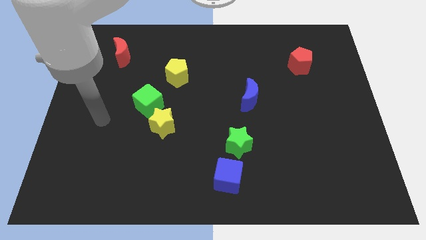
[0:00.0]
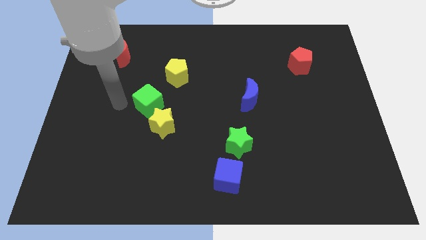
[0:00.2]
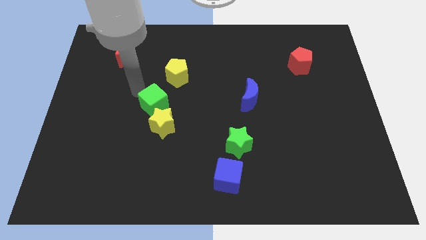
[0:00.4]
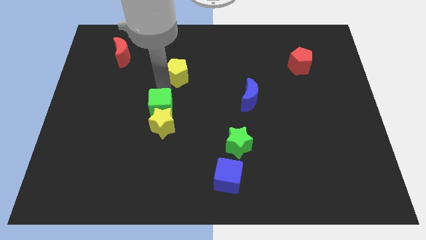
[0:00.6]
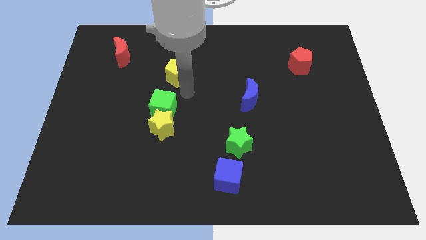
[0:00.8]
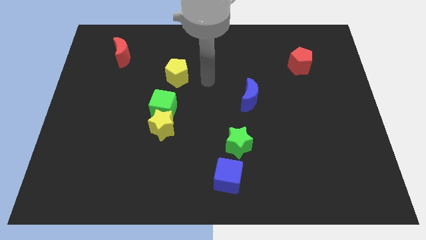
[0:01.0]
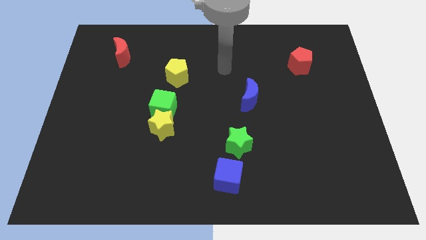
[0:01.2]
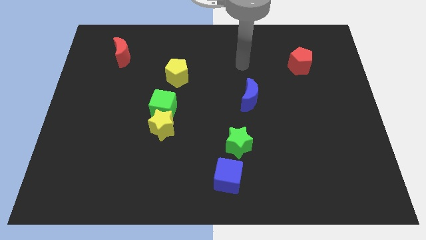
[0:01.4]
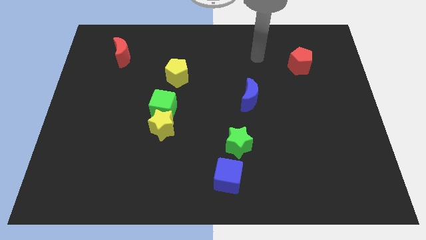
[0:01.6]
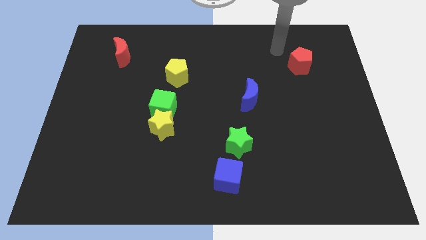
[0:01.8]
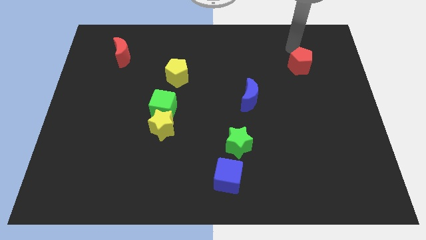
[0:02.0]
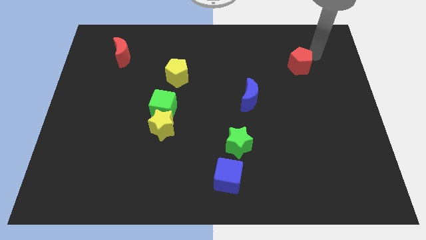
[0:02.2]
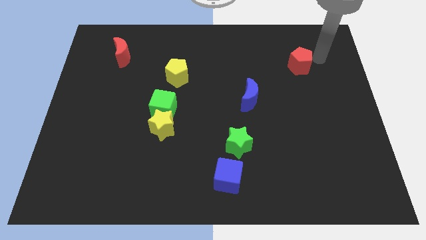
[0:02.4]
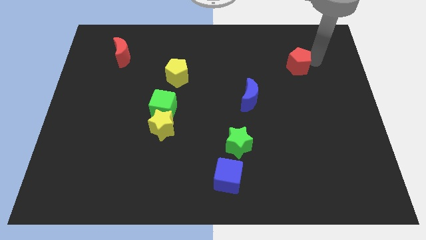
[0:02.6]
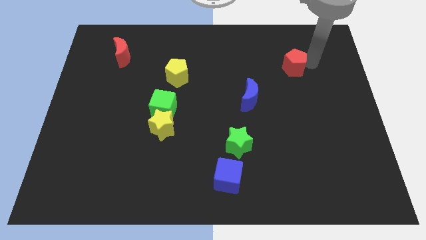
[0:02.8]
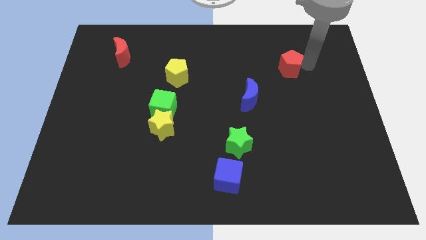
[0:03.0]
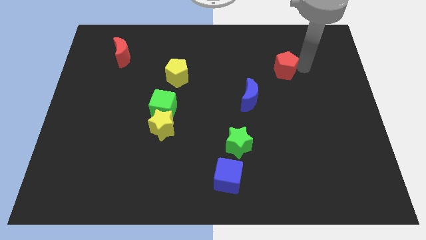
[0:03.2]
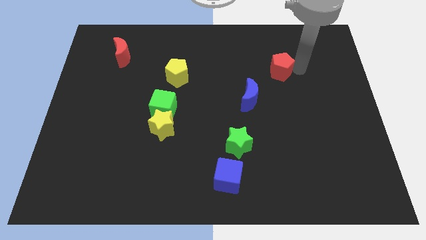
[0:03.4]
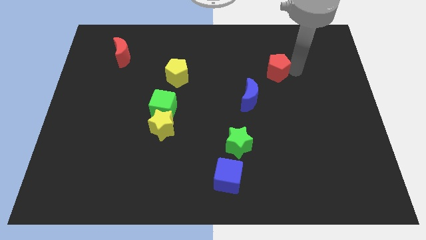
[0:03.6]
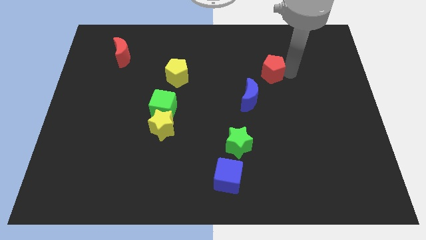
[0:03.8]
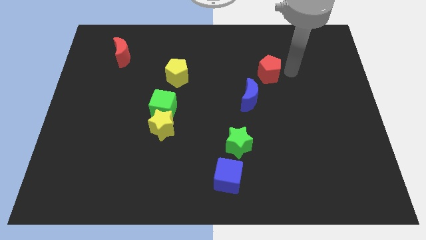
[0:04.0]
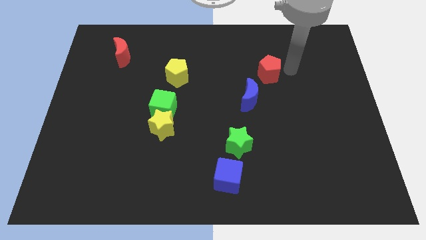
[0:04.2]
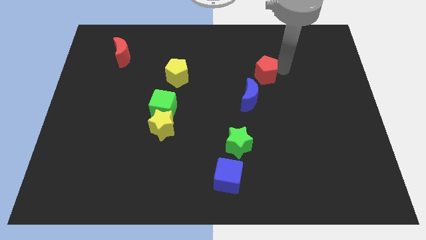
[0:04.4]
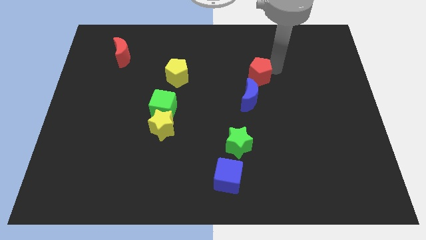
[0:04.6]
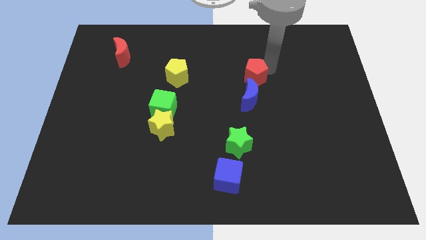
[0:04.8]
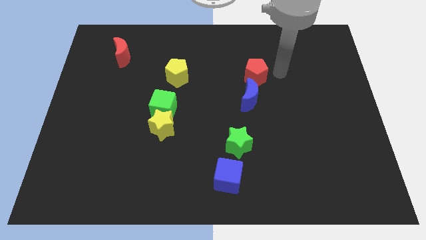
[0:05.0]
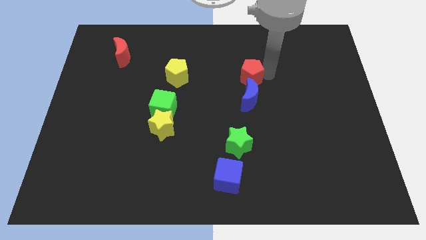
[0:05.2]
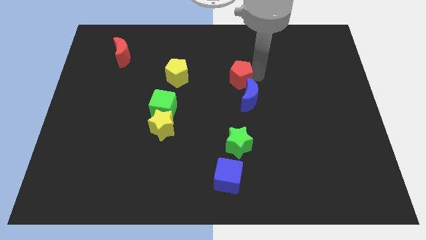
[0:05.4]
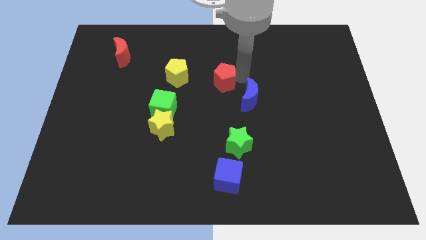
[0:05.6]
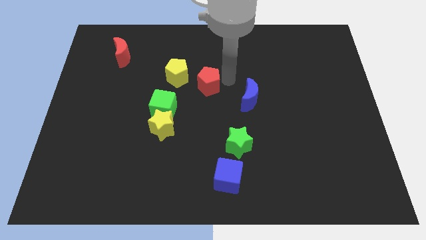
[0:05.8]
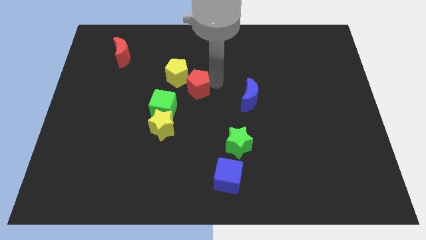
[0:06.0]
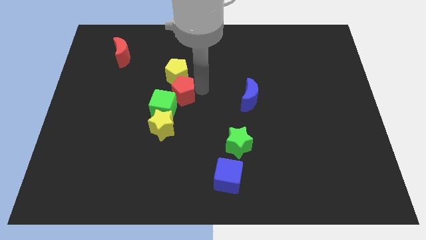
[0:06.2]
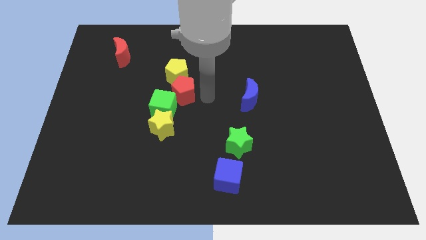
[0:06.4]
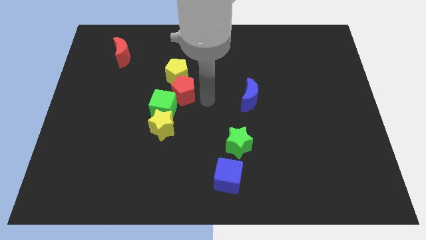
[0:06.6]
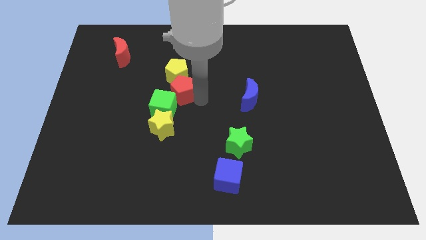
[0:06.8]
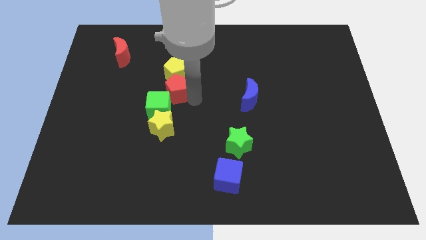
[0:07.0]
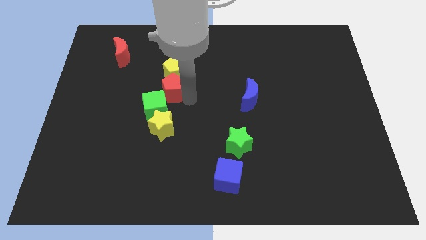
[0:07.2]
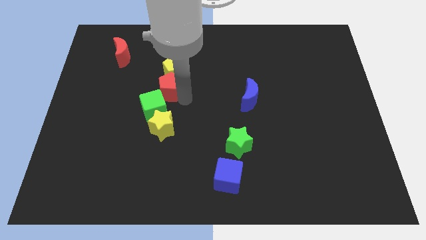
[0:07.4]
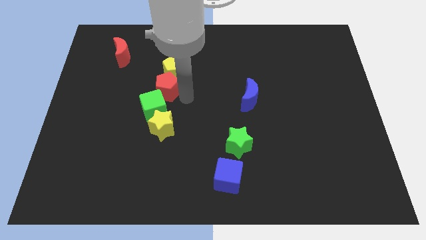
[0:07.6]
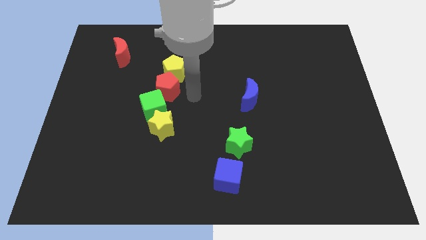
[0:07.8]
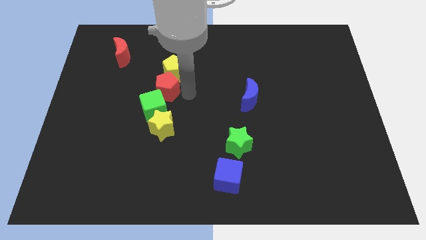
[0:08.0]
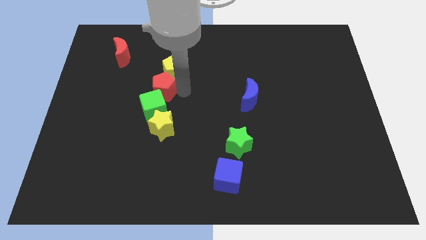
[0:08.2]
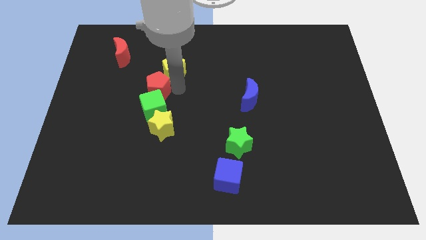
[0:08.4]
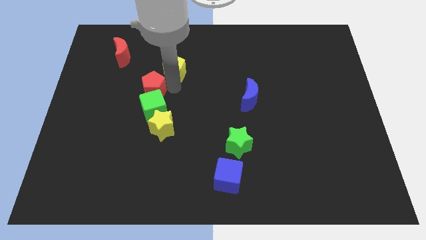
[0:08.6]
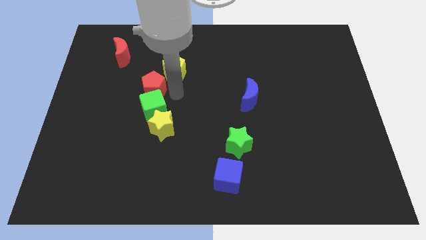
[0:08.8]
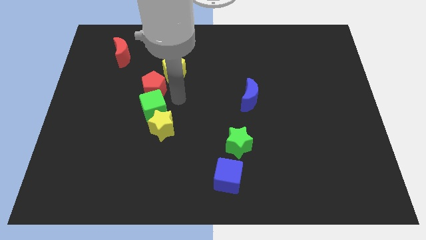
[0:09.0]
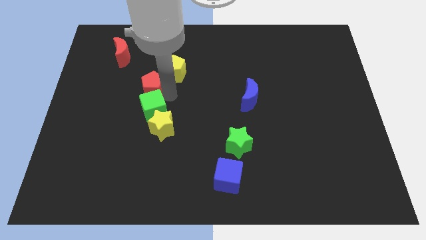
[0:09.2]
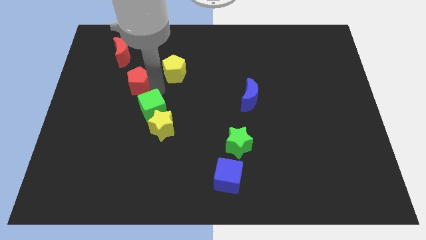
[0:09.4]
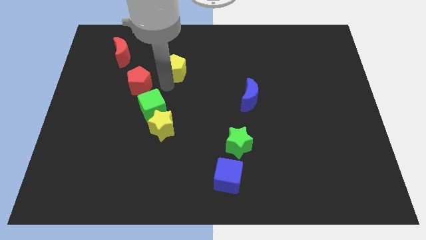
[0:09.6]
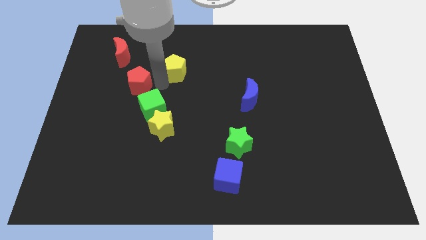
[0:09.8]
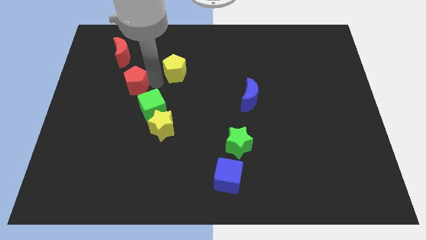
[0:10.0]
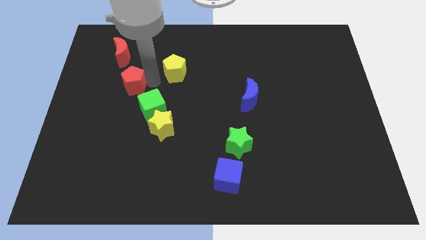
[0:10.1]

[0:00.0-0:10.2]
slide the red pentagon below the red moon

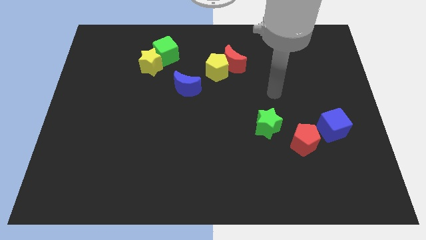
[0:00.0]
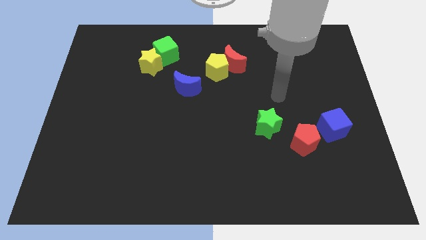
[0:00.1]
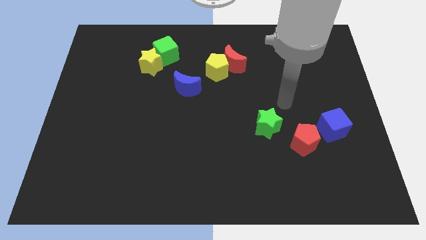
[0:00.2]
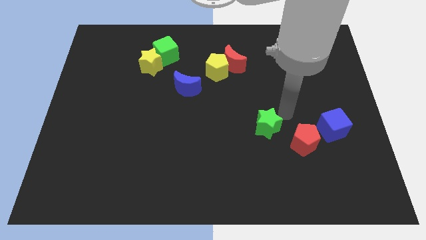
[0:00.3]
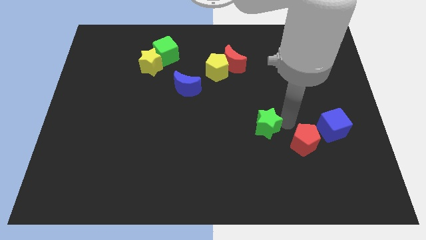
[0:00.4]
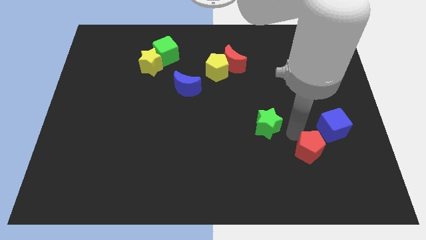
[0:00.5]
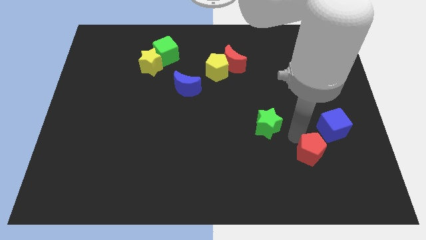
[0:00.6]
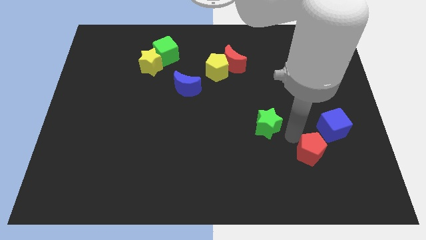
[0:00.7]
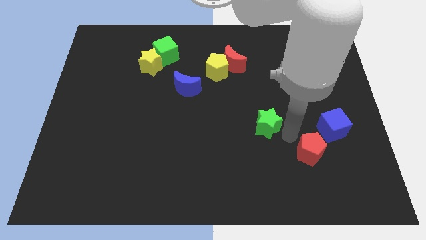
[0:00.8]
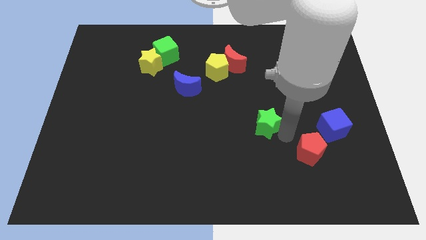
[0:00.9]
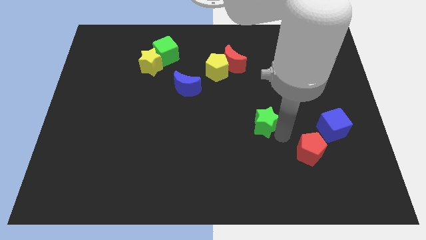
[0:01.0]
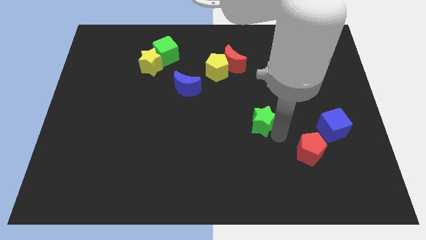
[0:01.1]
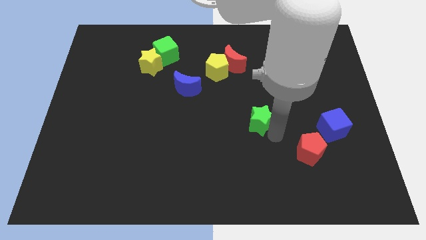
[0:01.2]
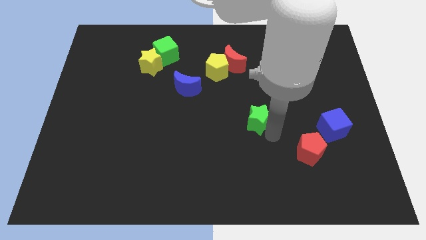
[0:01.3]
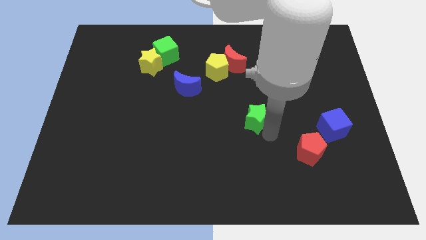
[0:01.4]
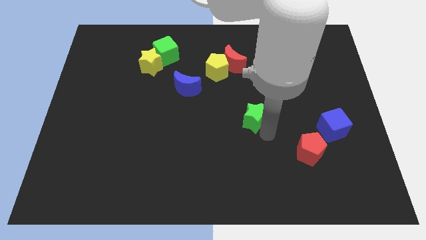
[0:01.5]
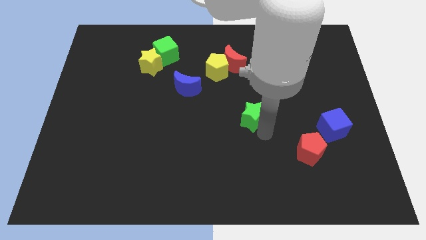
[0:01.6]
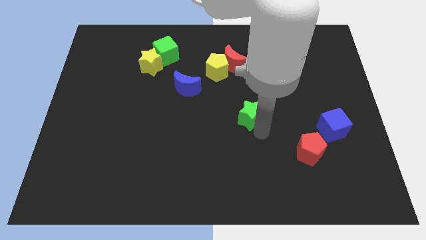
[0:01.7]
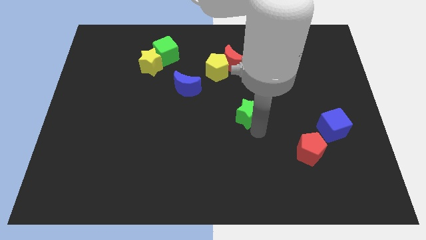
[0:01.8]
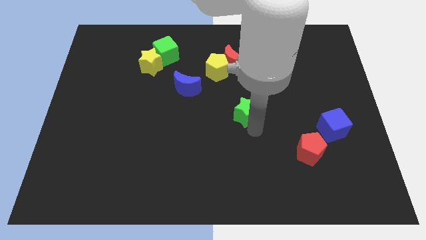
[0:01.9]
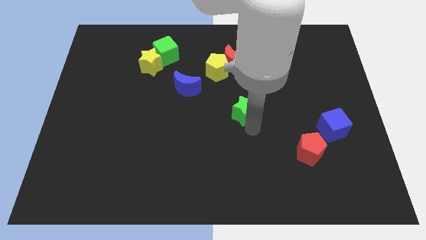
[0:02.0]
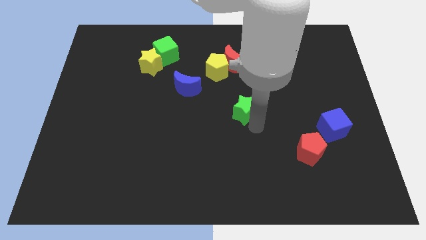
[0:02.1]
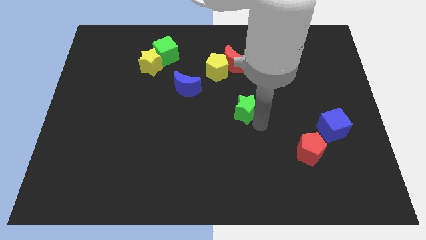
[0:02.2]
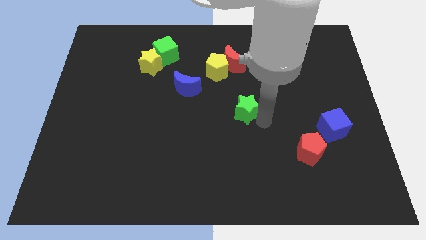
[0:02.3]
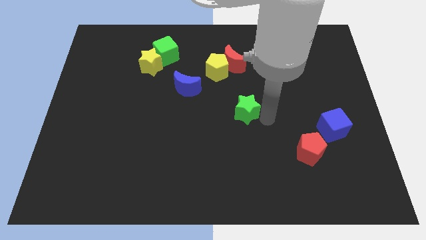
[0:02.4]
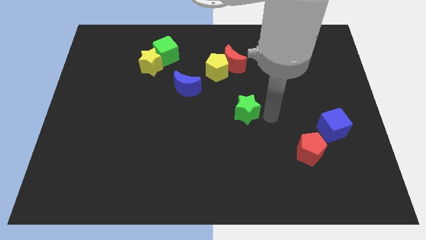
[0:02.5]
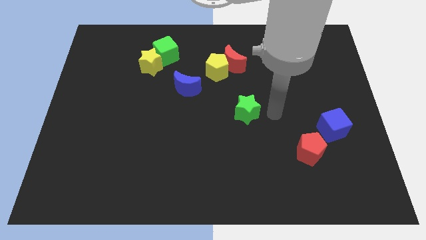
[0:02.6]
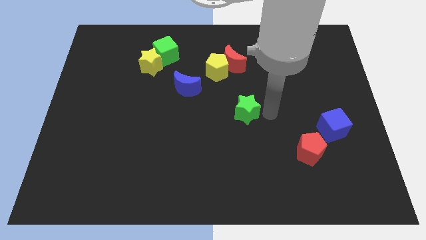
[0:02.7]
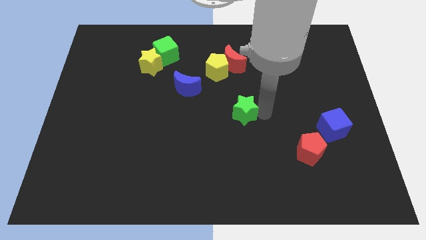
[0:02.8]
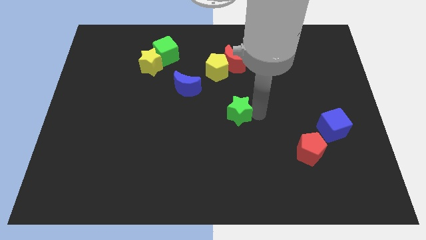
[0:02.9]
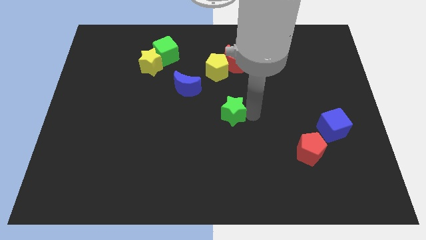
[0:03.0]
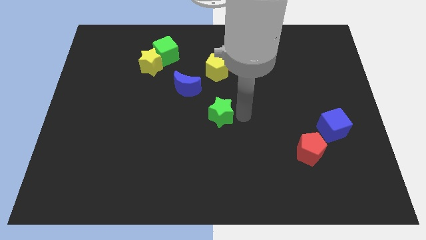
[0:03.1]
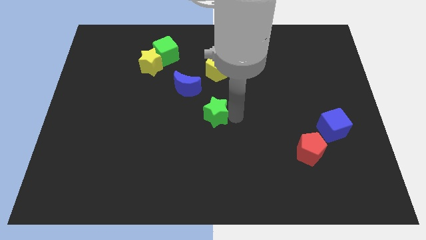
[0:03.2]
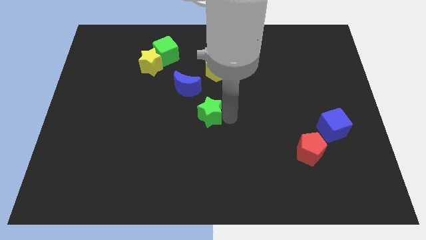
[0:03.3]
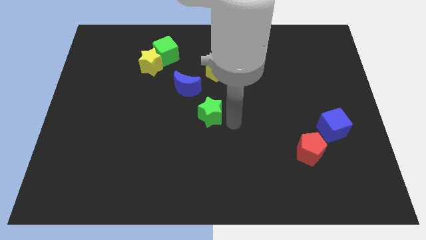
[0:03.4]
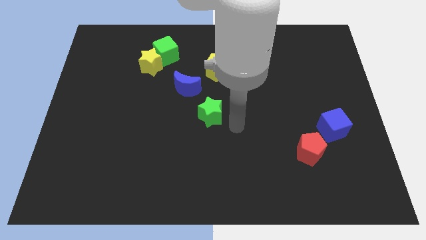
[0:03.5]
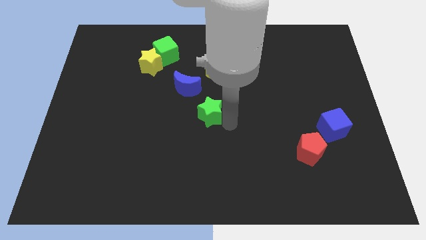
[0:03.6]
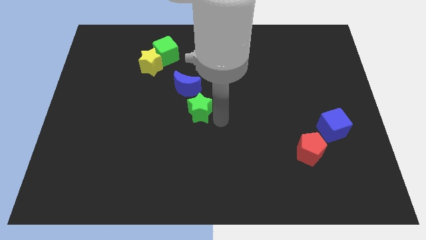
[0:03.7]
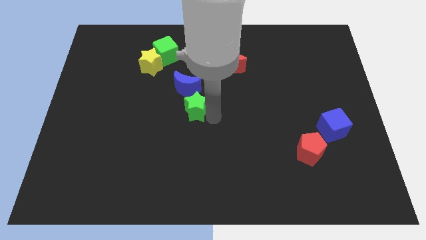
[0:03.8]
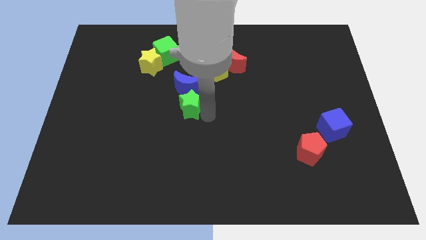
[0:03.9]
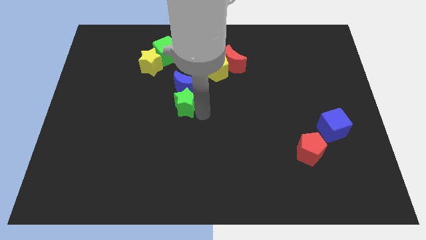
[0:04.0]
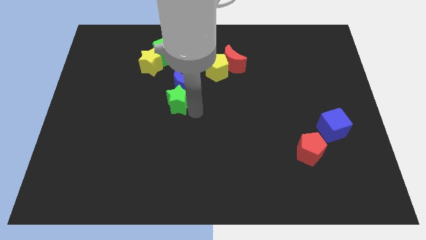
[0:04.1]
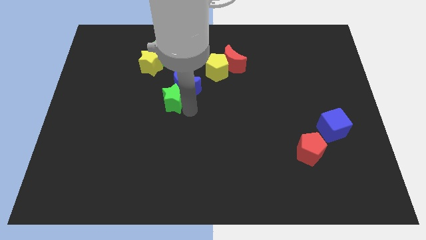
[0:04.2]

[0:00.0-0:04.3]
slide the green star to the left side of the blue moon
